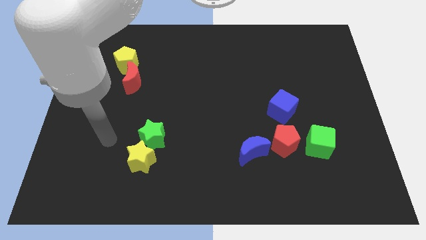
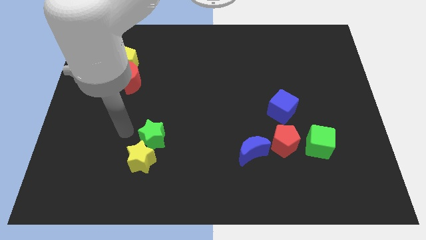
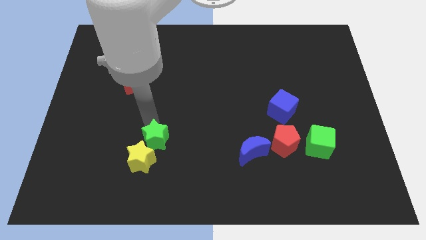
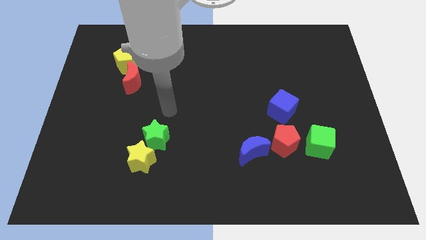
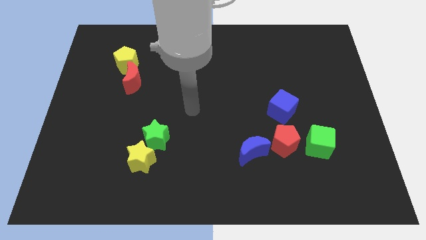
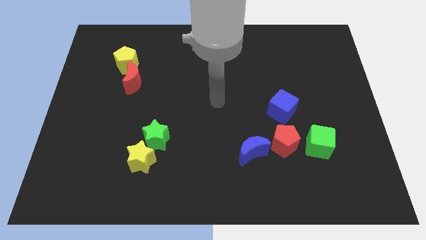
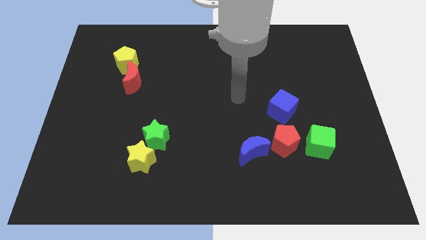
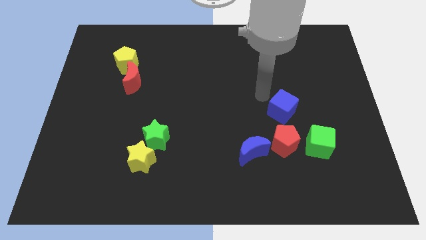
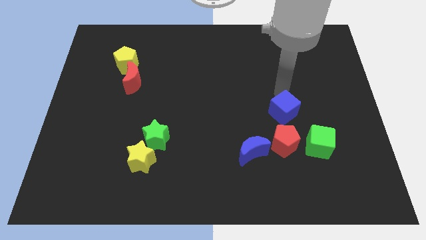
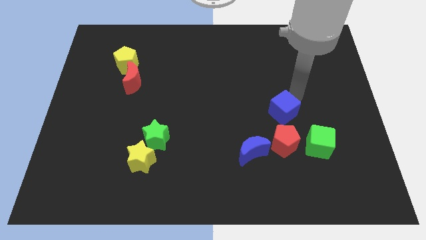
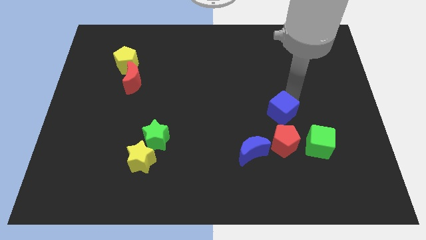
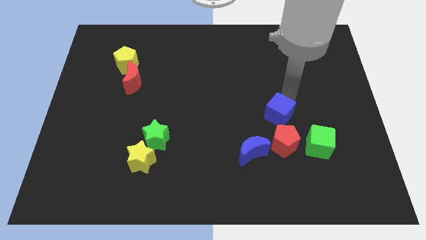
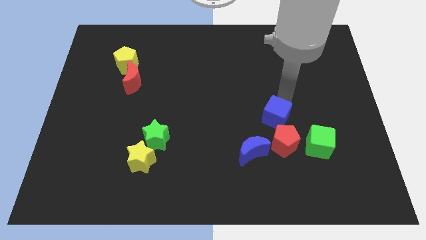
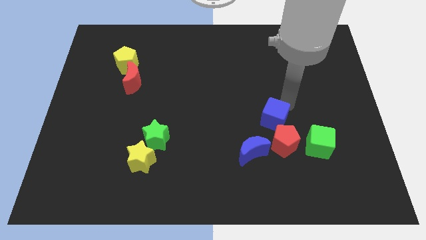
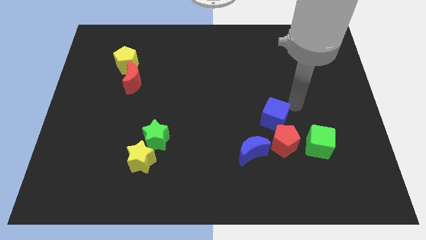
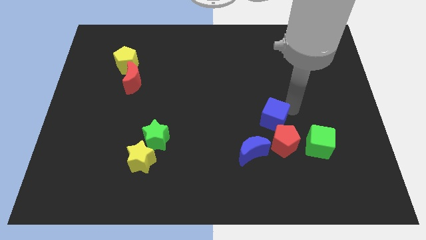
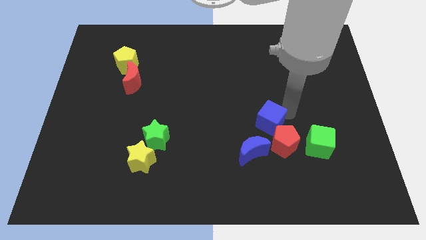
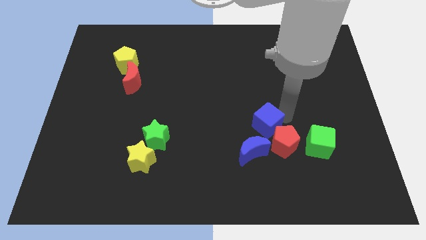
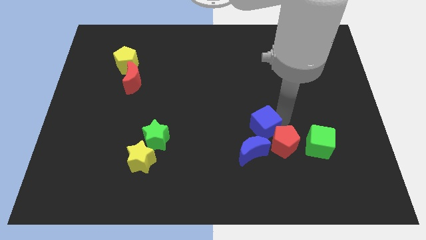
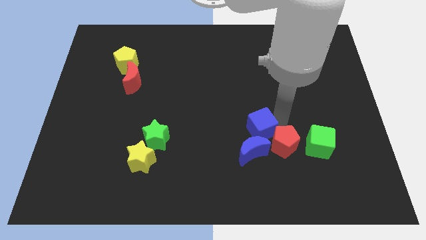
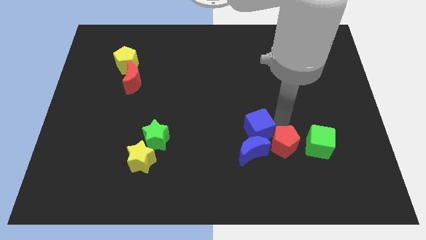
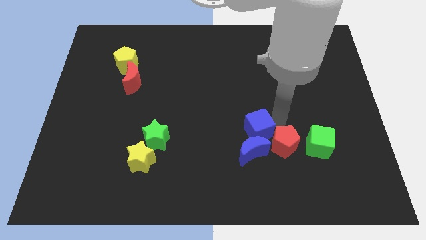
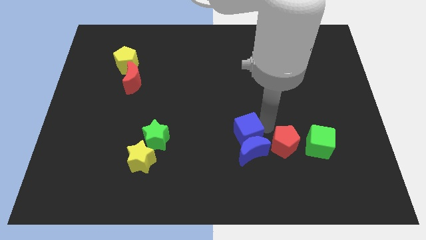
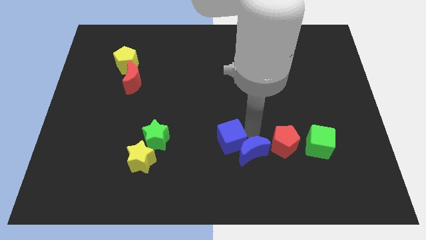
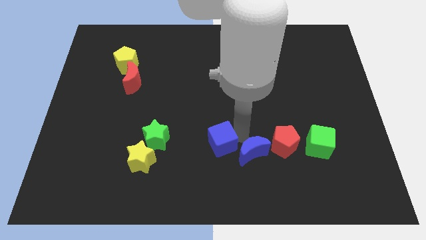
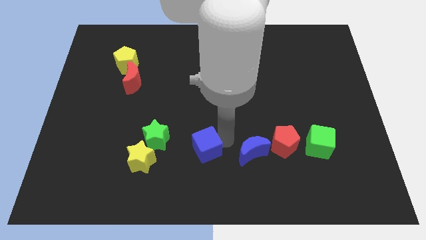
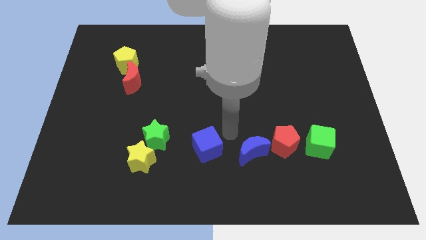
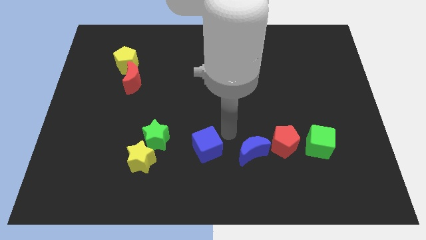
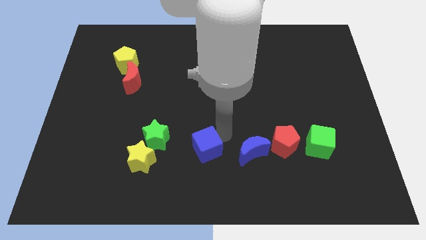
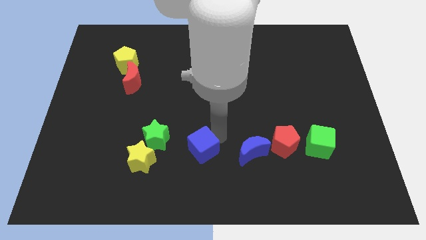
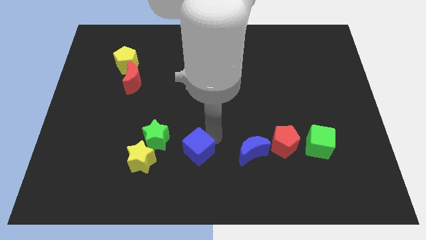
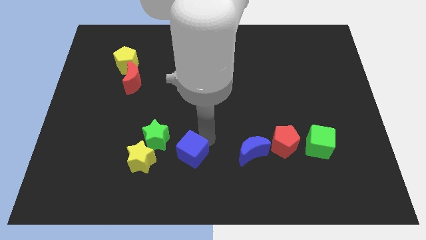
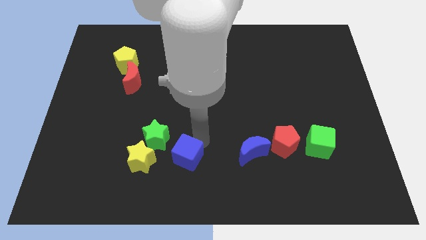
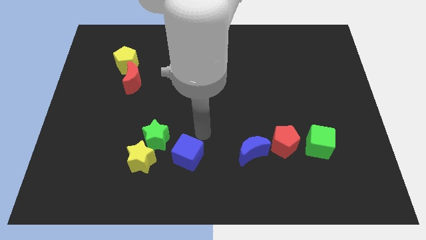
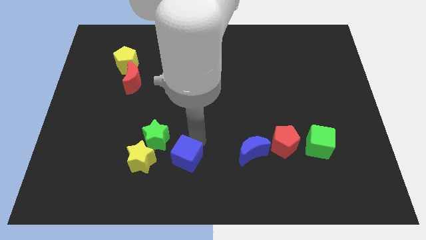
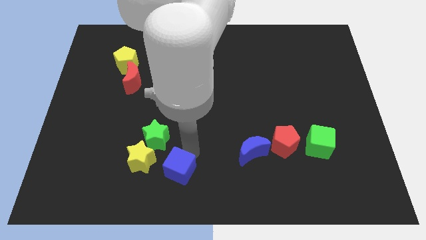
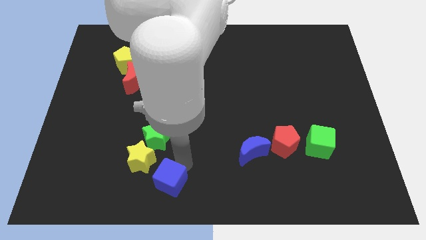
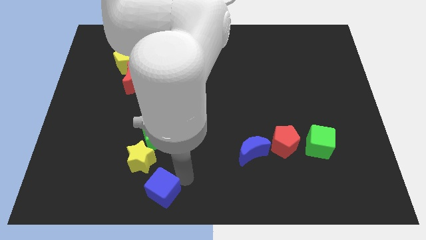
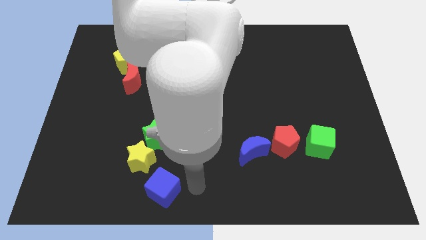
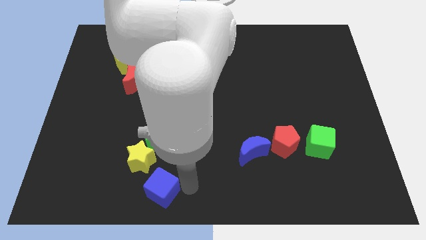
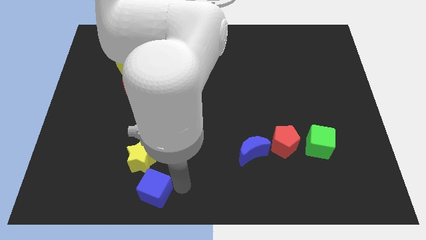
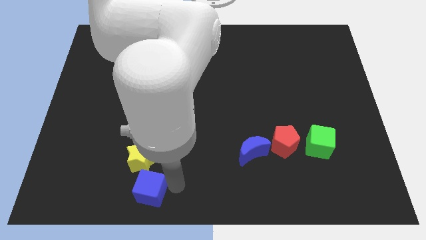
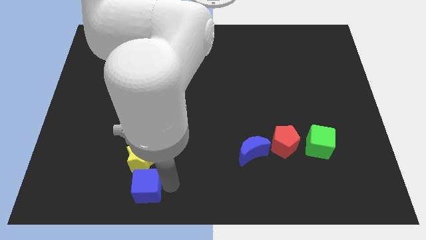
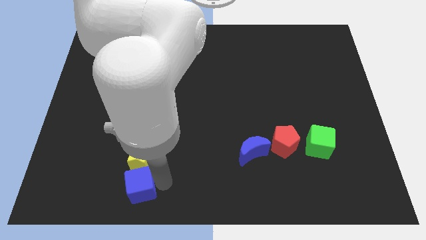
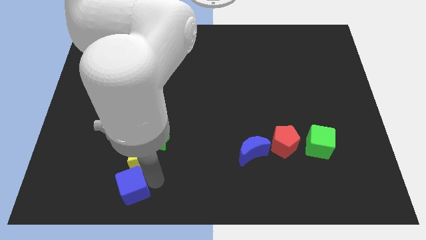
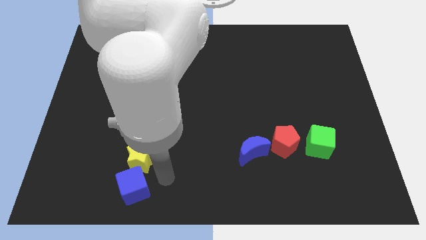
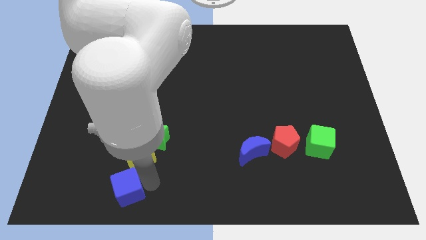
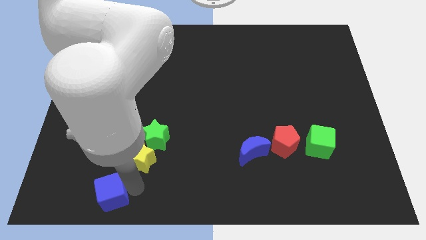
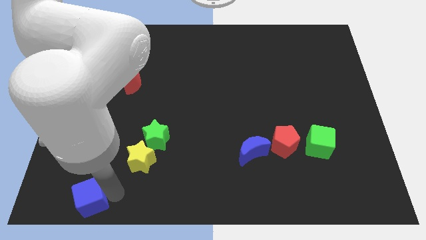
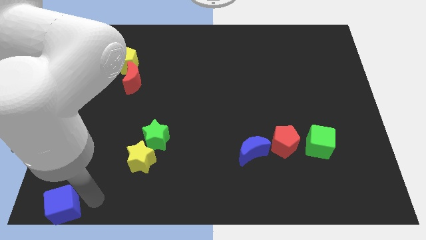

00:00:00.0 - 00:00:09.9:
put the blue cube to the bottom left of the board

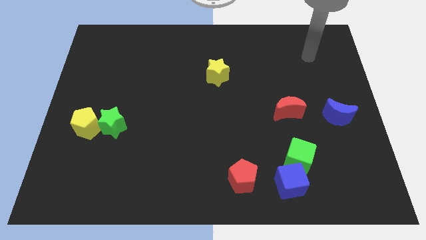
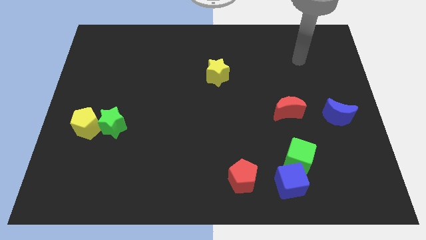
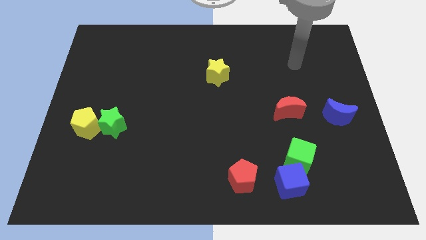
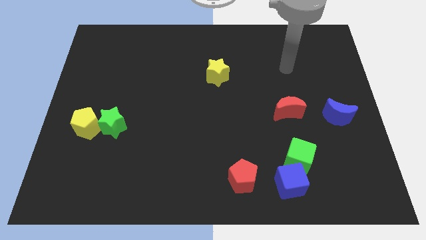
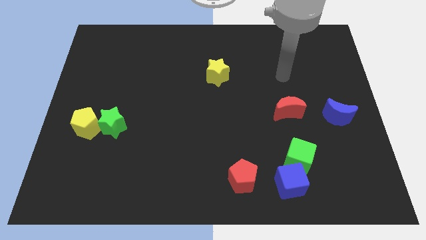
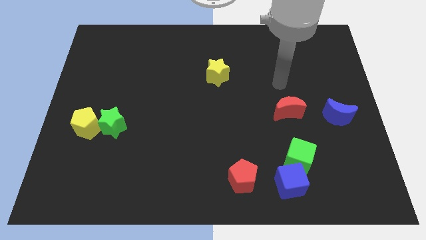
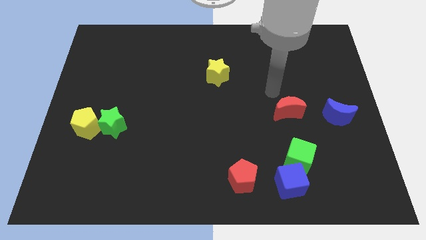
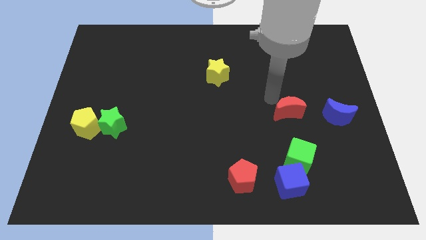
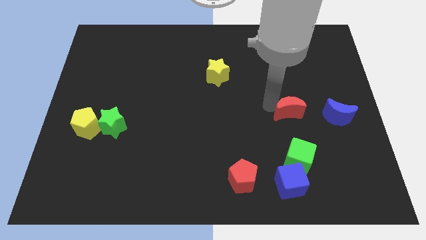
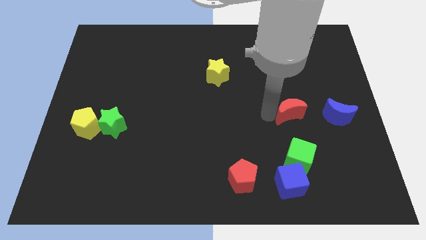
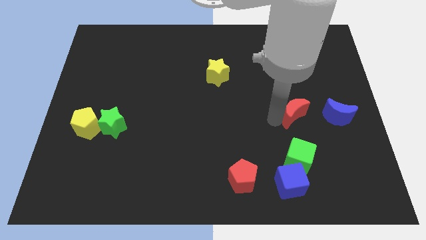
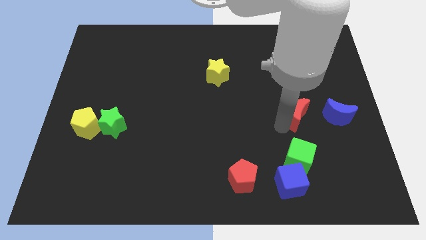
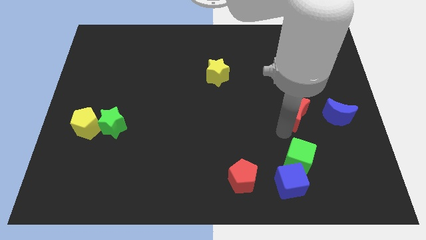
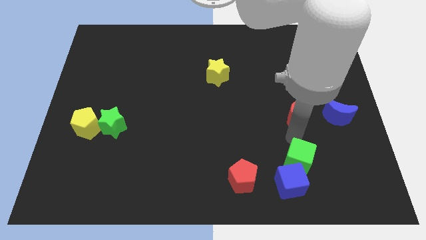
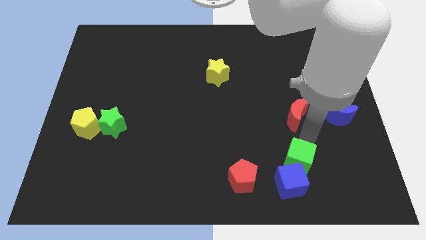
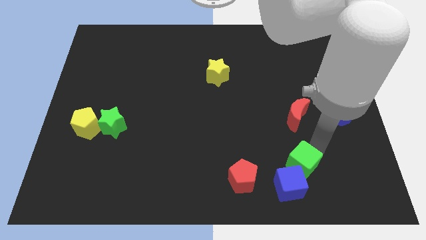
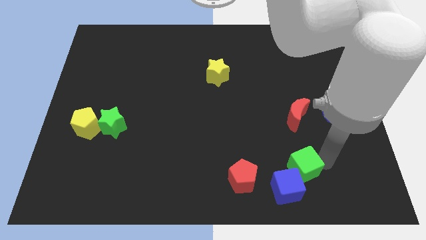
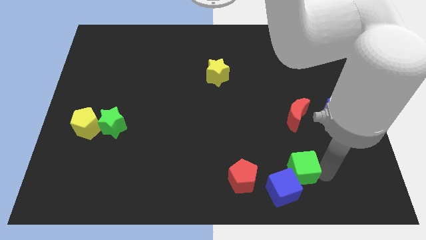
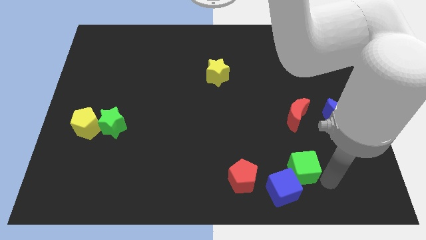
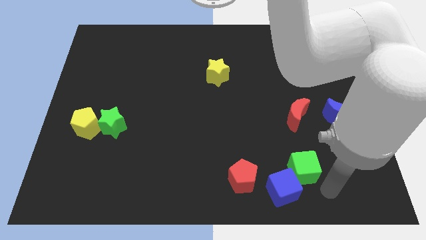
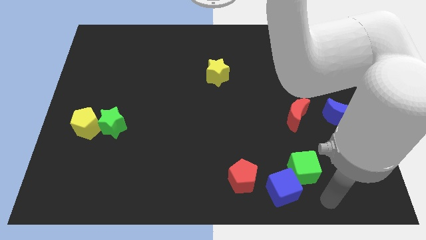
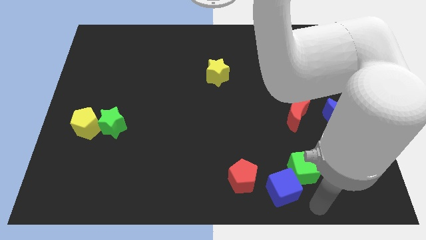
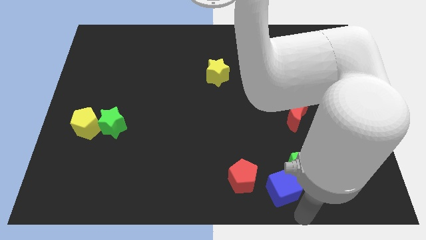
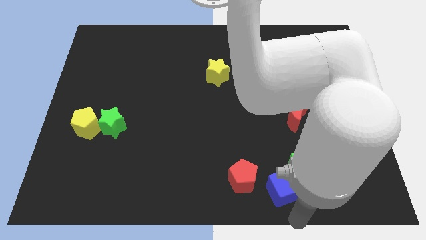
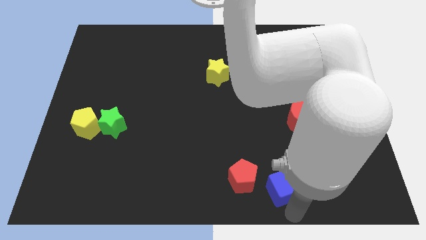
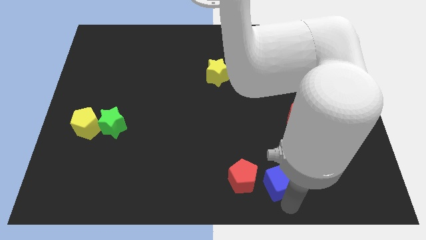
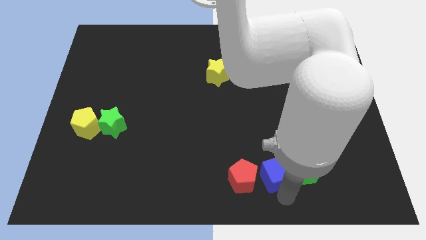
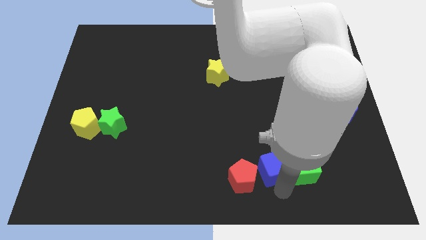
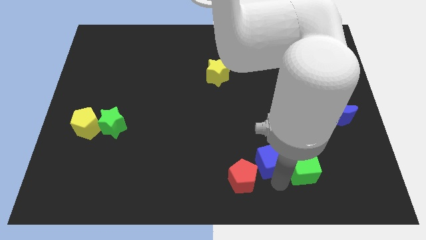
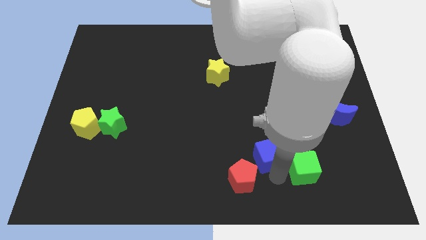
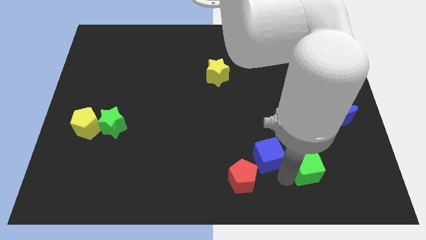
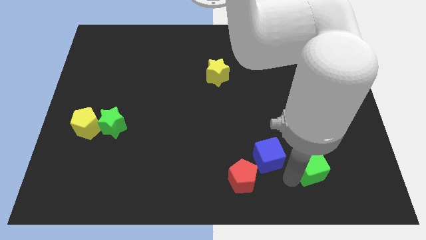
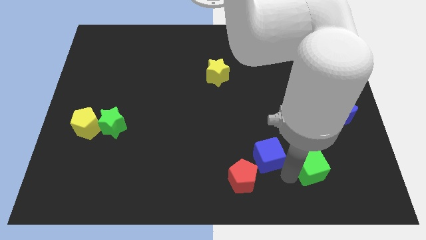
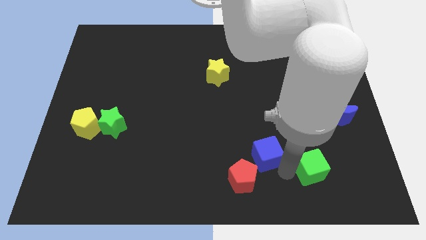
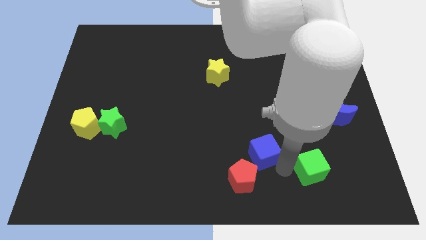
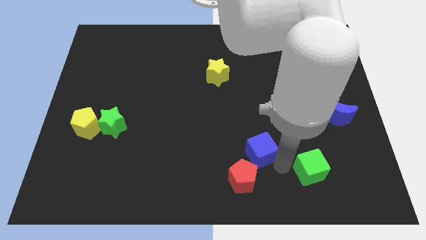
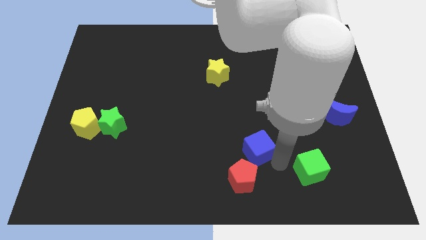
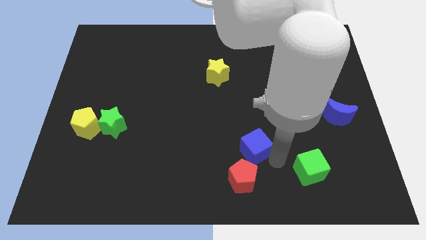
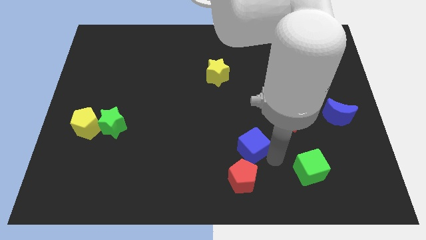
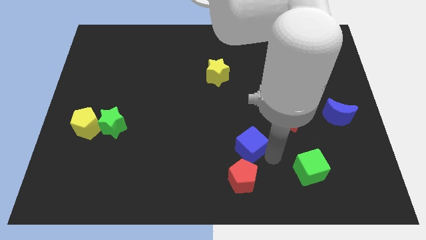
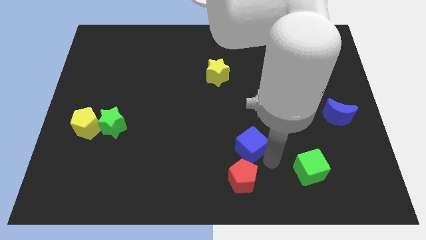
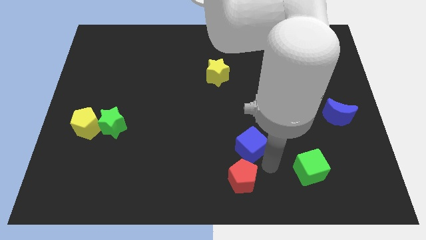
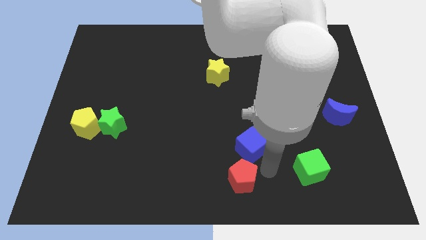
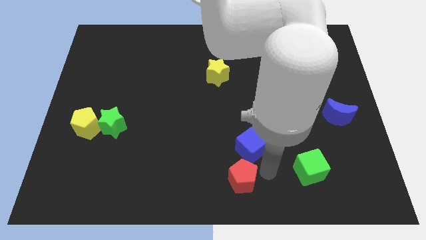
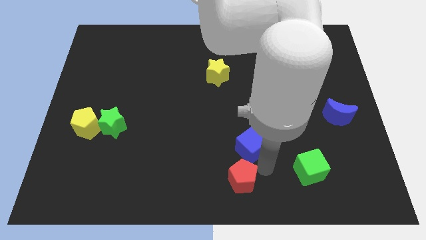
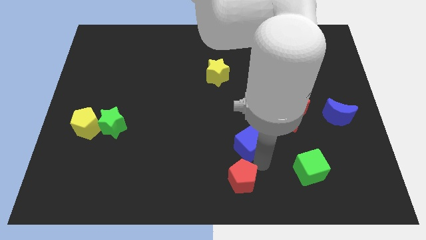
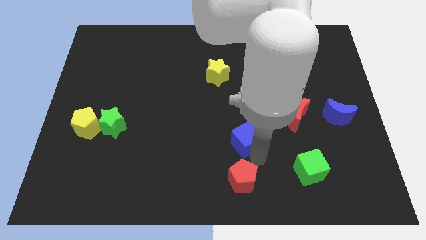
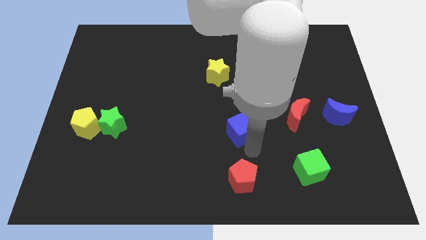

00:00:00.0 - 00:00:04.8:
push the blue cube to the middle
